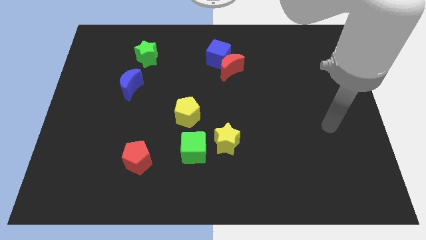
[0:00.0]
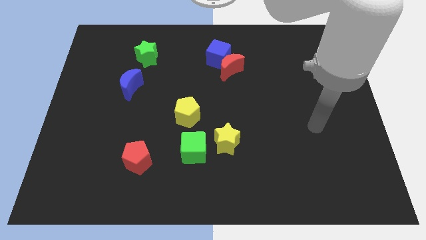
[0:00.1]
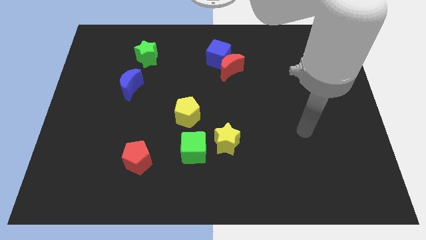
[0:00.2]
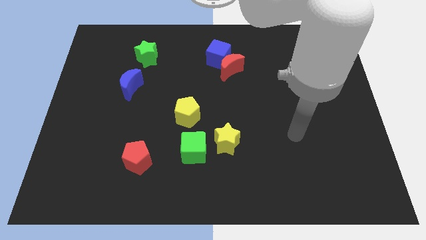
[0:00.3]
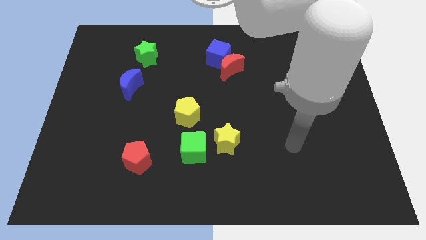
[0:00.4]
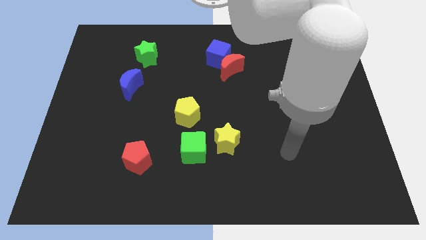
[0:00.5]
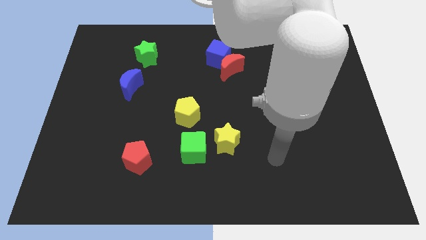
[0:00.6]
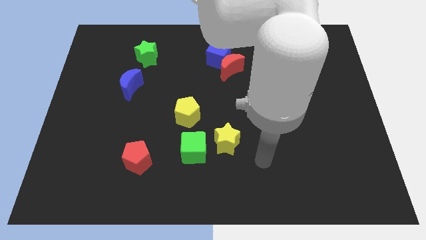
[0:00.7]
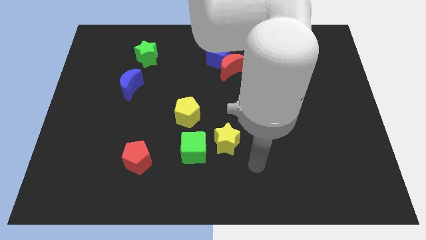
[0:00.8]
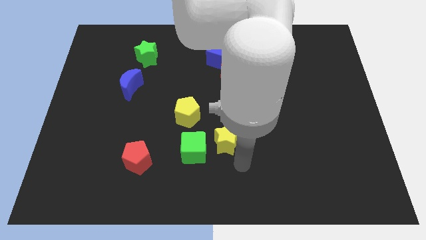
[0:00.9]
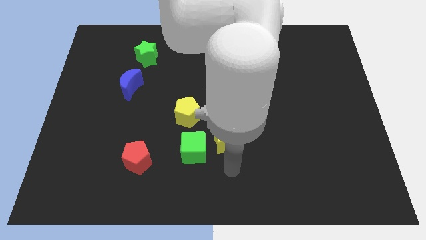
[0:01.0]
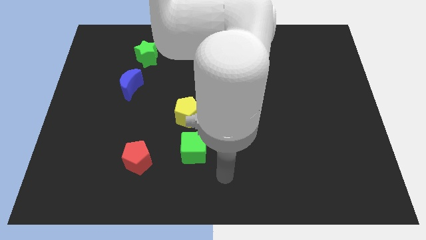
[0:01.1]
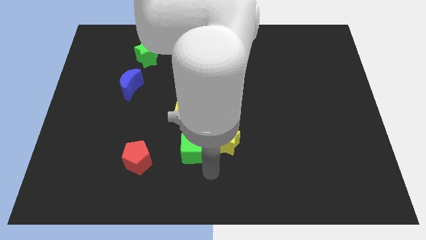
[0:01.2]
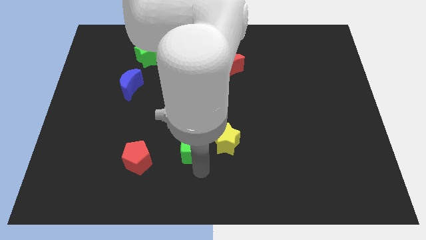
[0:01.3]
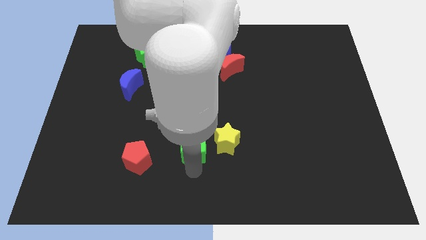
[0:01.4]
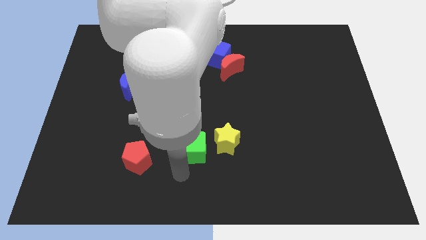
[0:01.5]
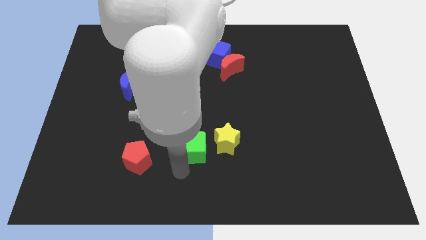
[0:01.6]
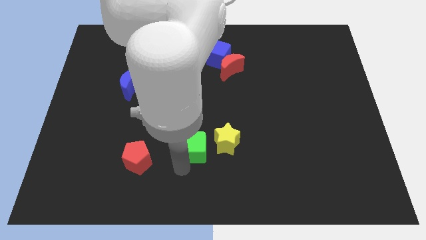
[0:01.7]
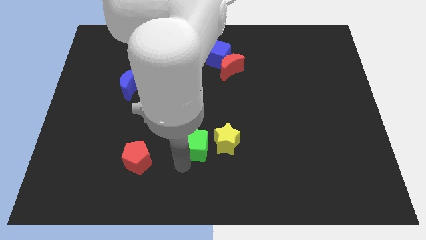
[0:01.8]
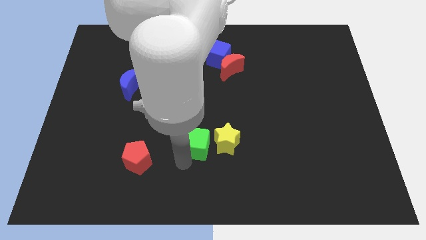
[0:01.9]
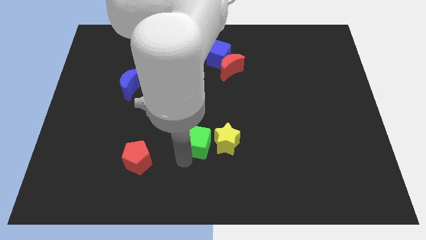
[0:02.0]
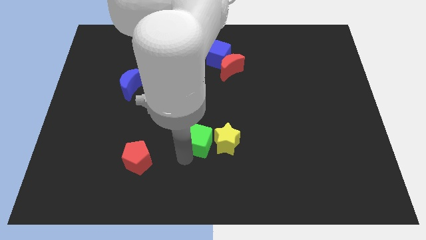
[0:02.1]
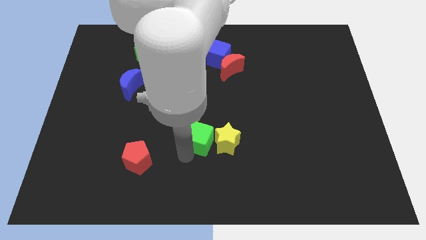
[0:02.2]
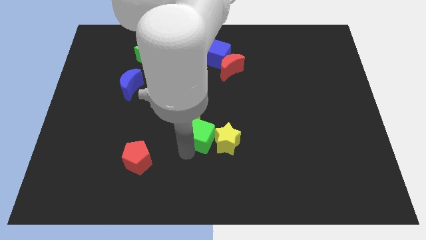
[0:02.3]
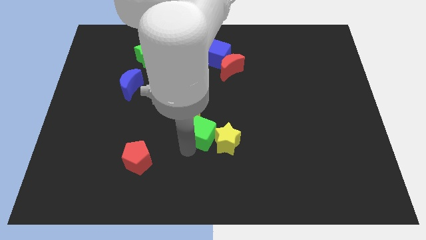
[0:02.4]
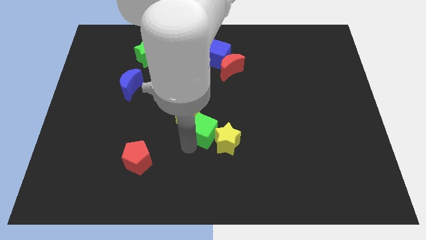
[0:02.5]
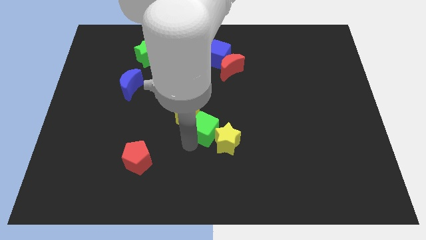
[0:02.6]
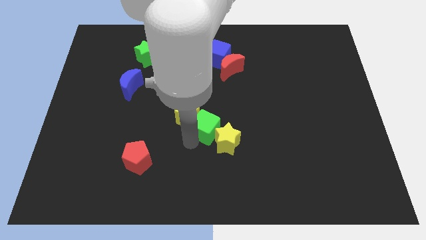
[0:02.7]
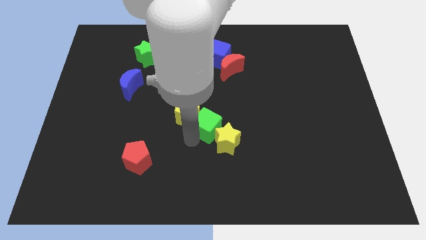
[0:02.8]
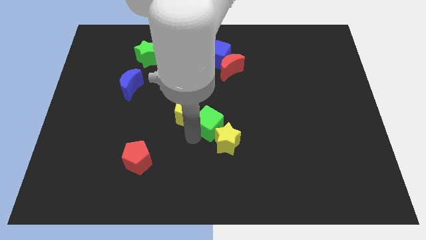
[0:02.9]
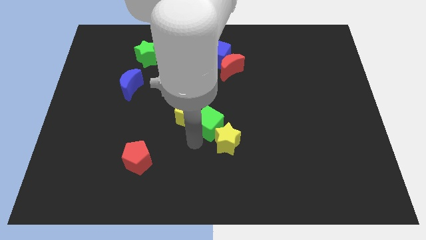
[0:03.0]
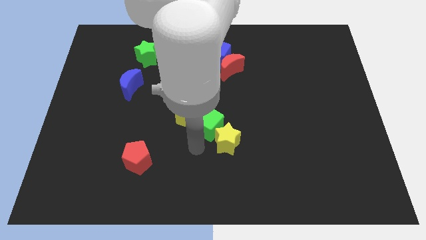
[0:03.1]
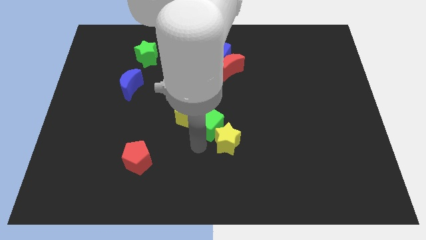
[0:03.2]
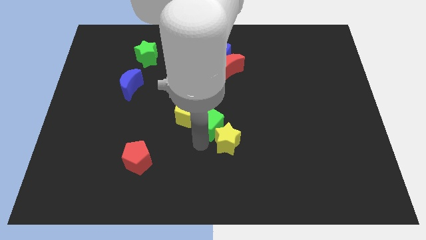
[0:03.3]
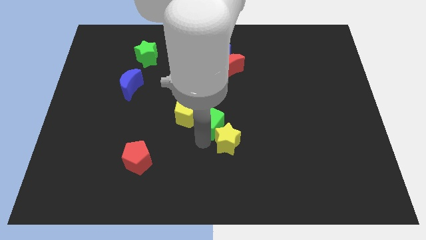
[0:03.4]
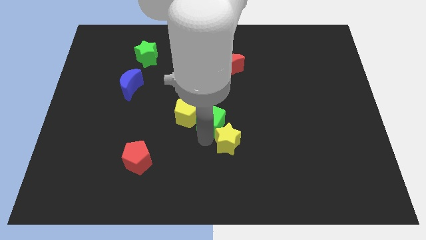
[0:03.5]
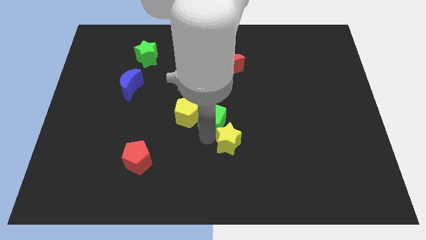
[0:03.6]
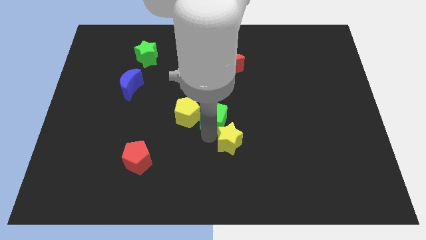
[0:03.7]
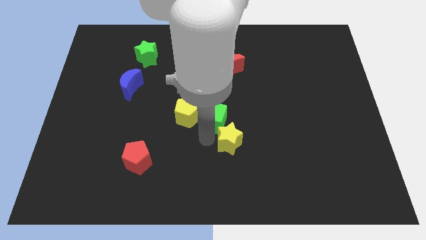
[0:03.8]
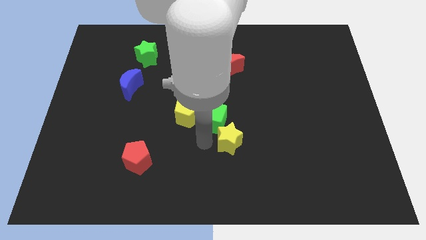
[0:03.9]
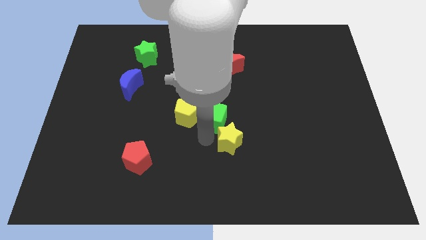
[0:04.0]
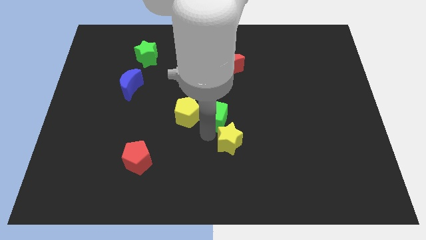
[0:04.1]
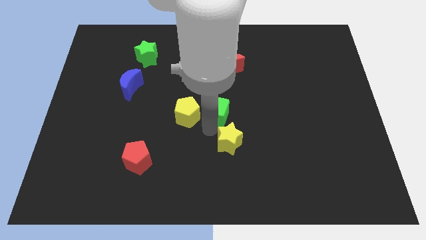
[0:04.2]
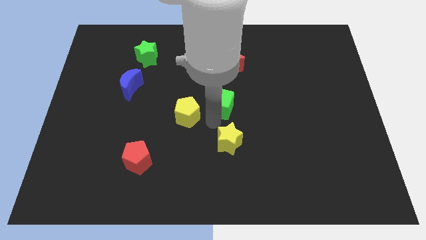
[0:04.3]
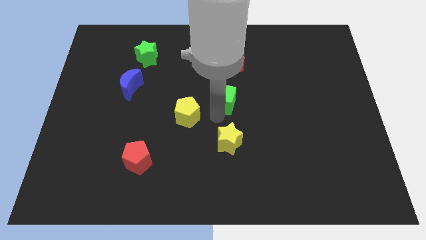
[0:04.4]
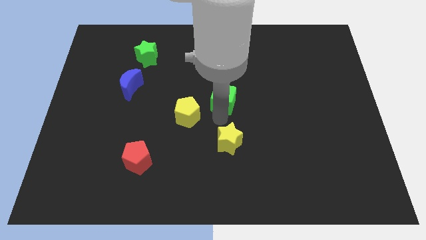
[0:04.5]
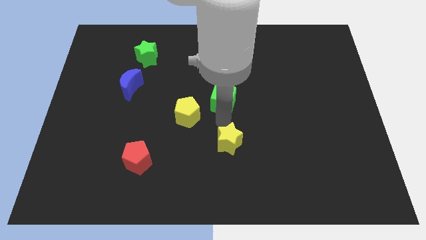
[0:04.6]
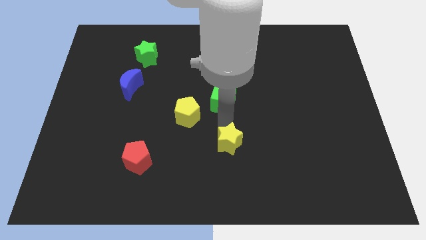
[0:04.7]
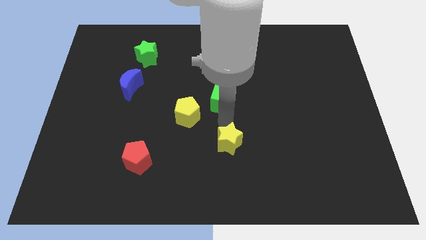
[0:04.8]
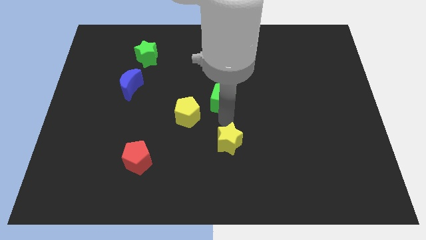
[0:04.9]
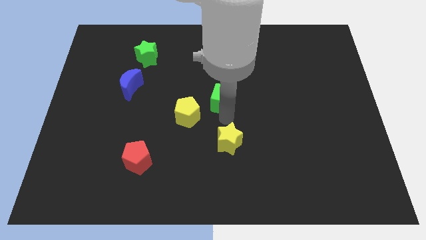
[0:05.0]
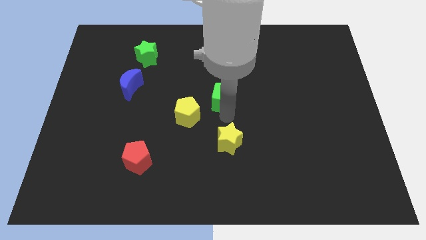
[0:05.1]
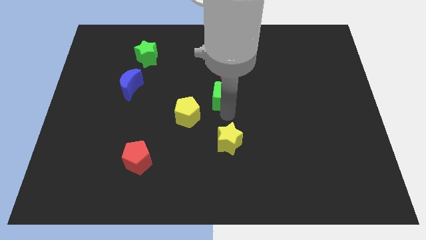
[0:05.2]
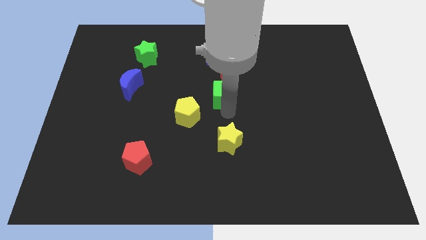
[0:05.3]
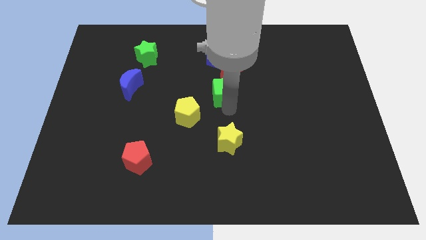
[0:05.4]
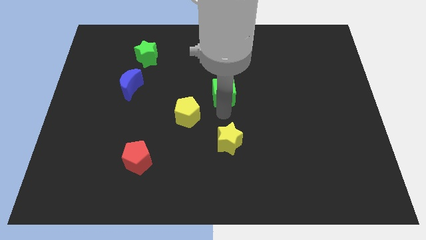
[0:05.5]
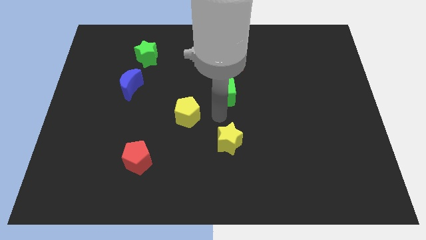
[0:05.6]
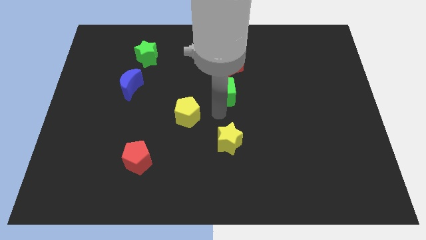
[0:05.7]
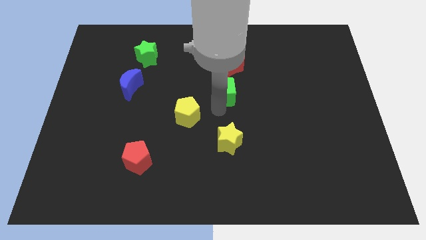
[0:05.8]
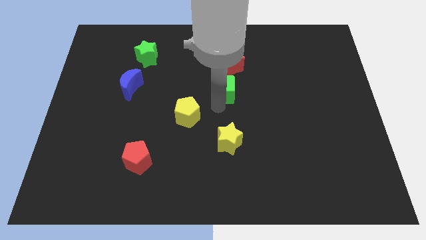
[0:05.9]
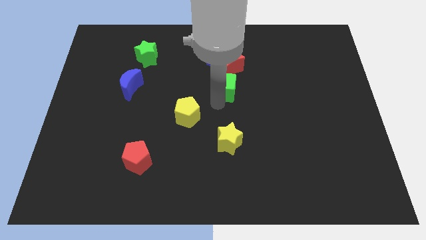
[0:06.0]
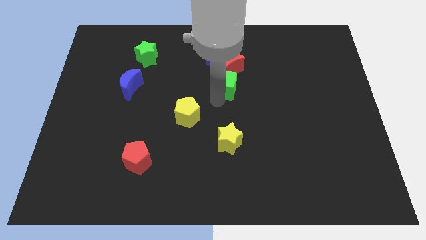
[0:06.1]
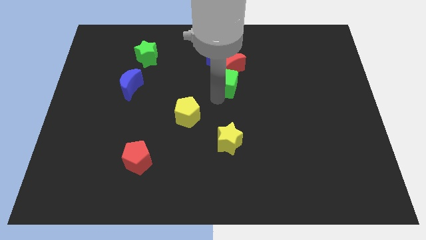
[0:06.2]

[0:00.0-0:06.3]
push the green cube to the red moon

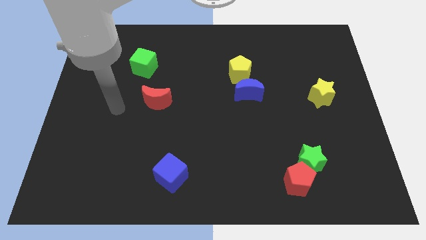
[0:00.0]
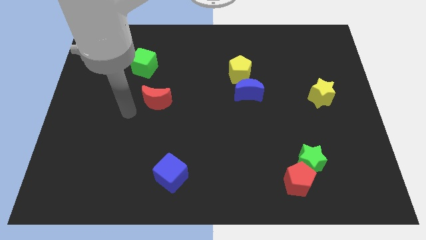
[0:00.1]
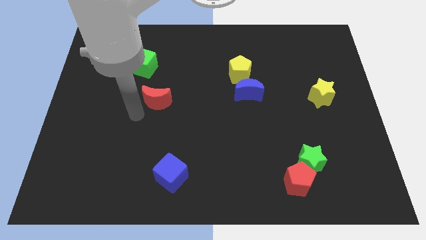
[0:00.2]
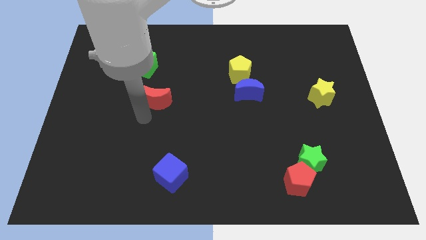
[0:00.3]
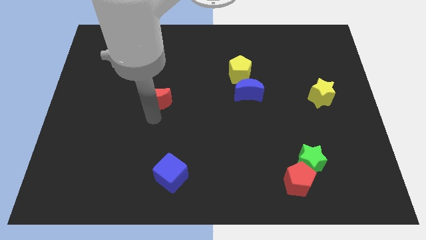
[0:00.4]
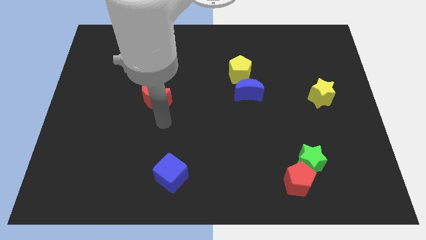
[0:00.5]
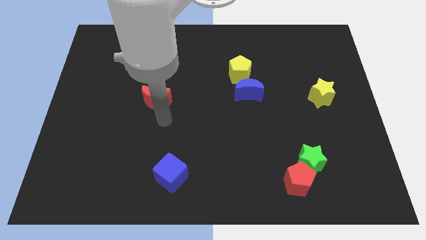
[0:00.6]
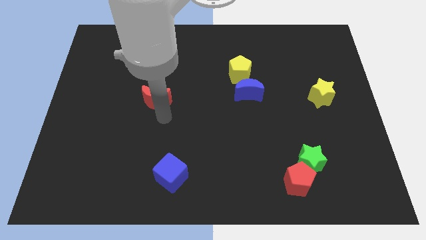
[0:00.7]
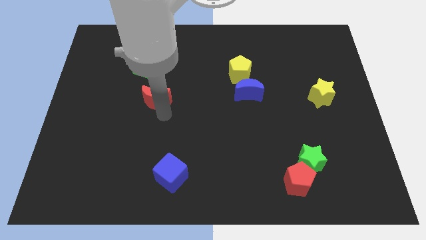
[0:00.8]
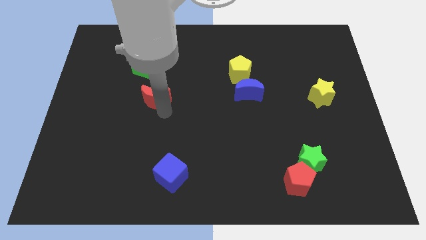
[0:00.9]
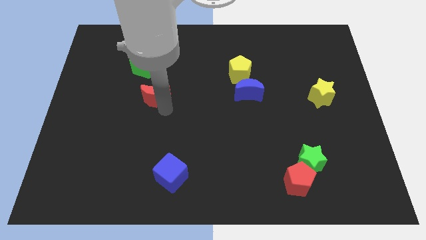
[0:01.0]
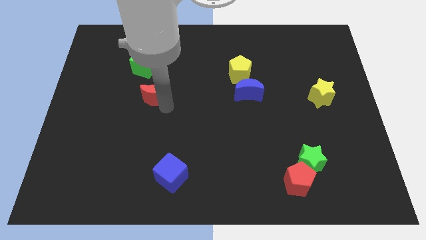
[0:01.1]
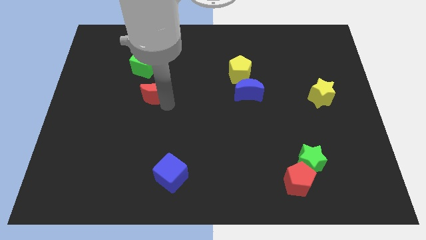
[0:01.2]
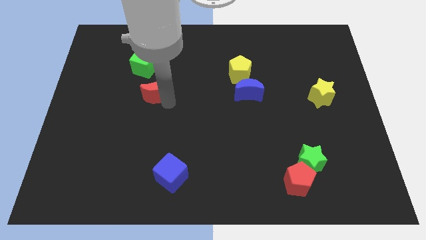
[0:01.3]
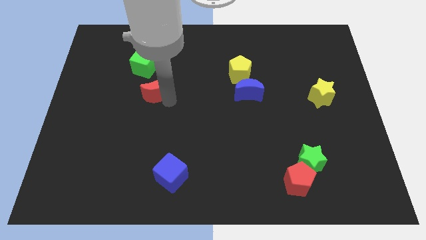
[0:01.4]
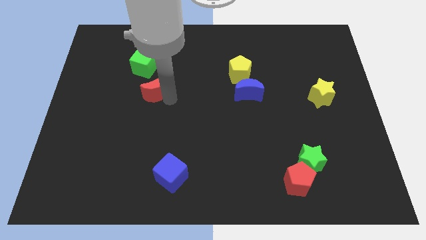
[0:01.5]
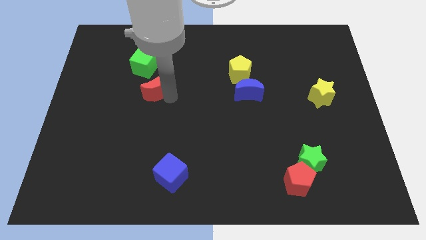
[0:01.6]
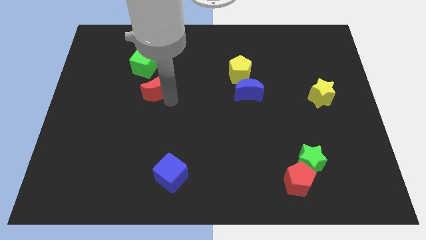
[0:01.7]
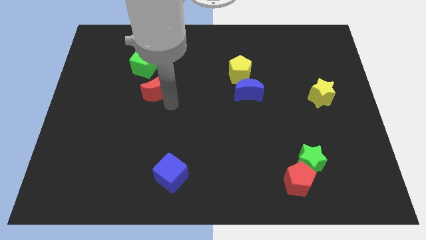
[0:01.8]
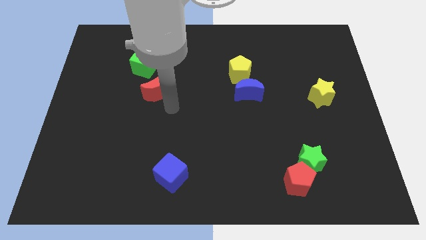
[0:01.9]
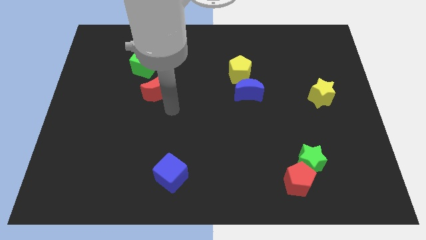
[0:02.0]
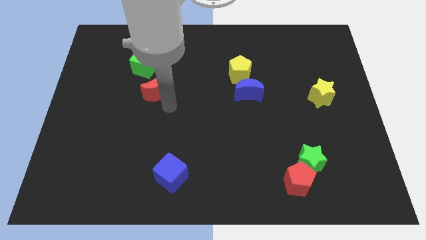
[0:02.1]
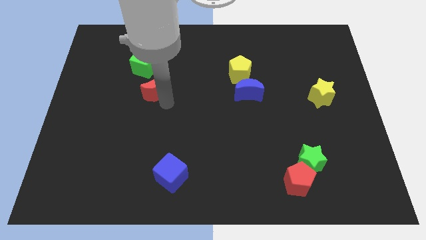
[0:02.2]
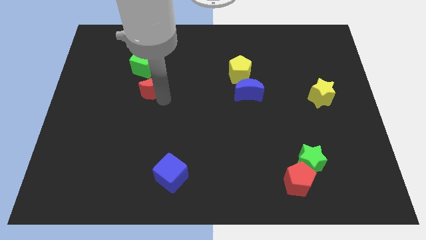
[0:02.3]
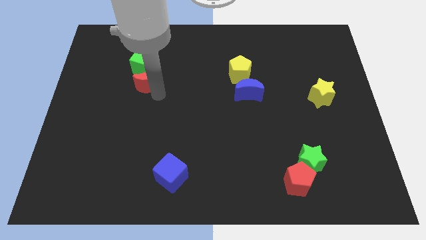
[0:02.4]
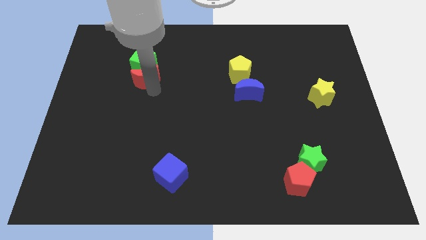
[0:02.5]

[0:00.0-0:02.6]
move the red moon next to the green cube
